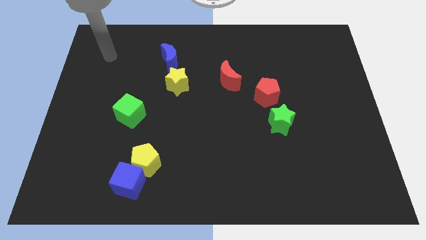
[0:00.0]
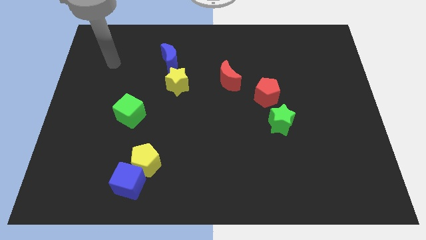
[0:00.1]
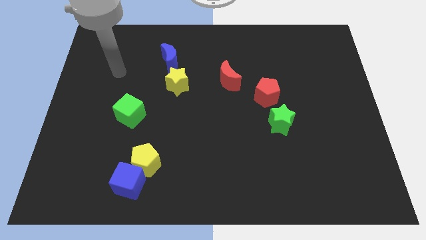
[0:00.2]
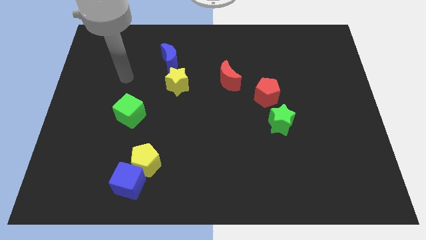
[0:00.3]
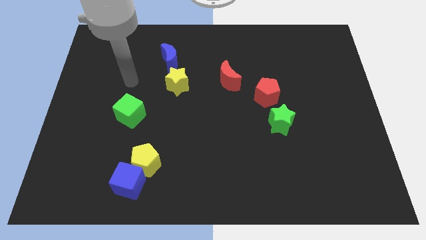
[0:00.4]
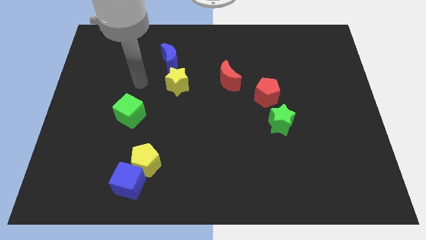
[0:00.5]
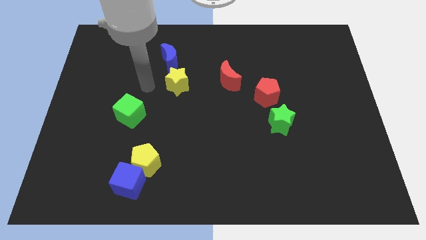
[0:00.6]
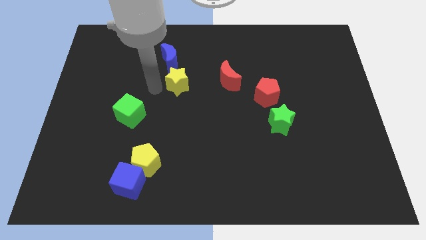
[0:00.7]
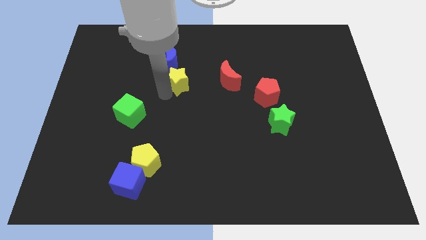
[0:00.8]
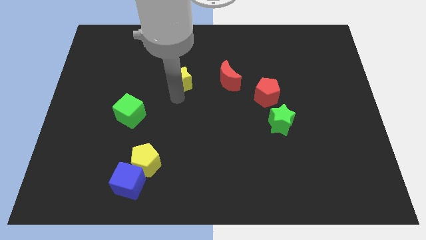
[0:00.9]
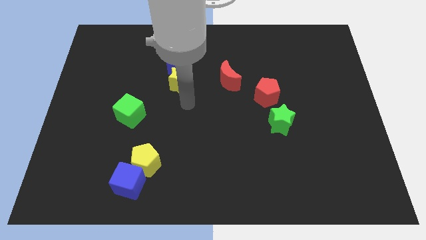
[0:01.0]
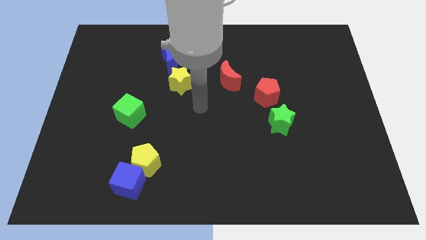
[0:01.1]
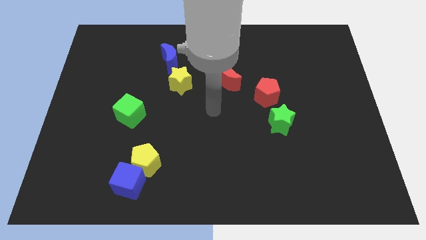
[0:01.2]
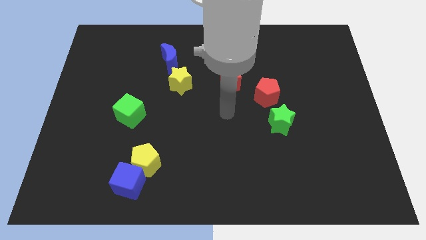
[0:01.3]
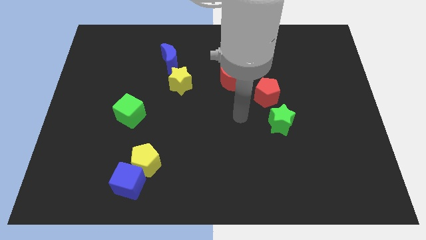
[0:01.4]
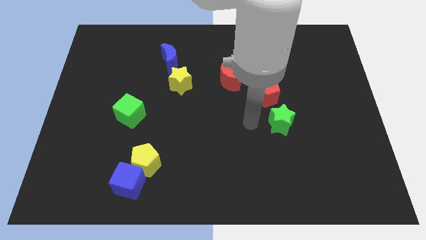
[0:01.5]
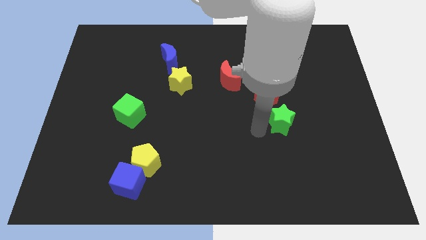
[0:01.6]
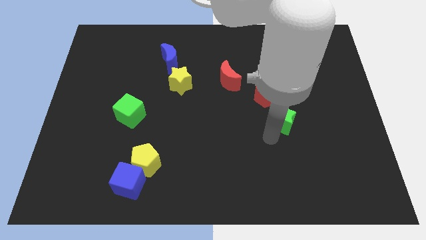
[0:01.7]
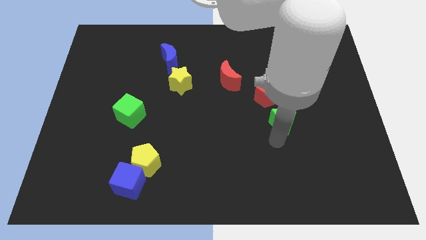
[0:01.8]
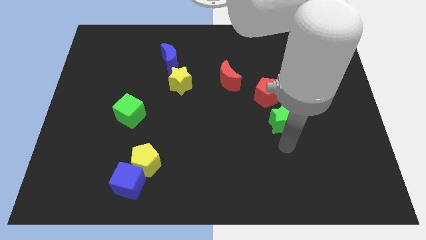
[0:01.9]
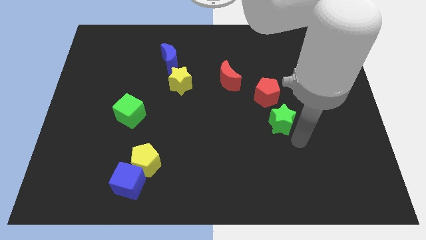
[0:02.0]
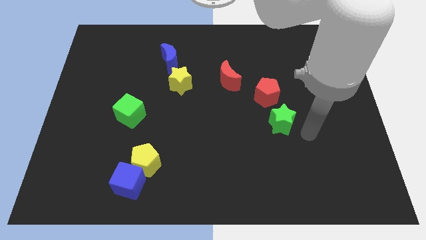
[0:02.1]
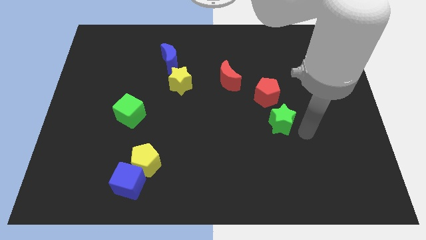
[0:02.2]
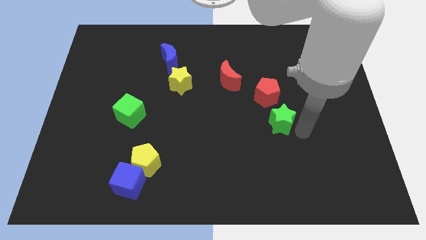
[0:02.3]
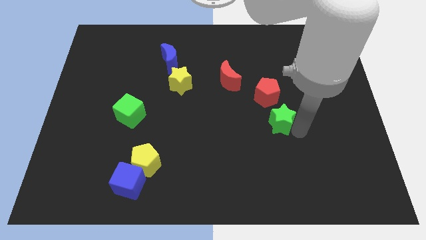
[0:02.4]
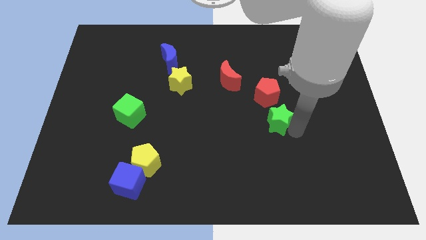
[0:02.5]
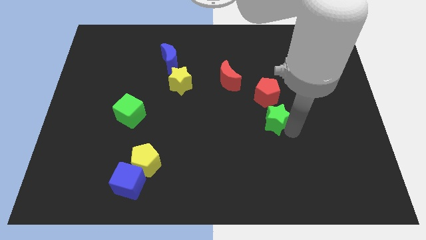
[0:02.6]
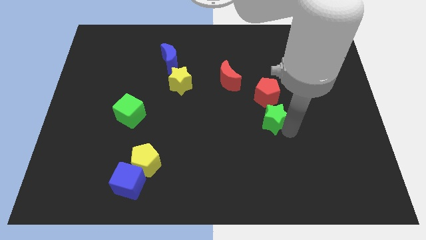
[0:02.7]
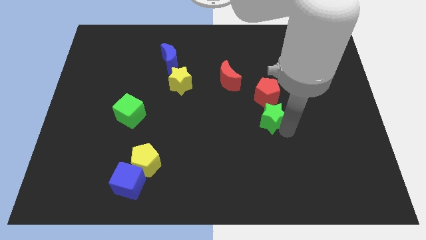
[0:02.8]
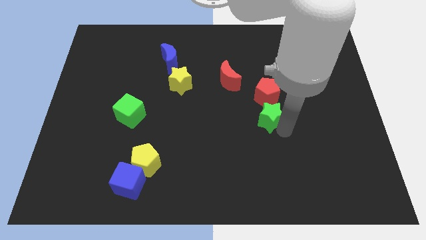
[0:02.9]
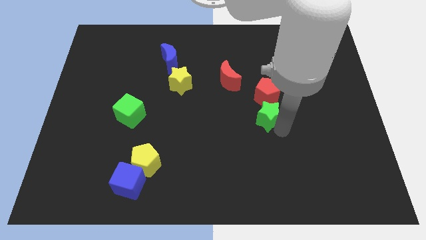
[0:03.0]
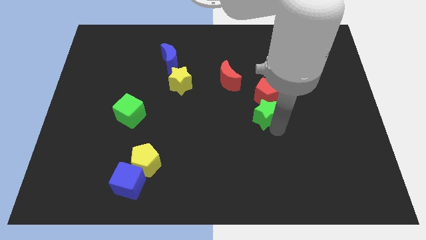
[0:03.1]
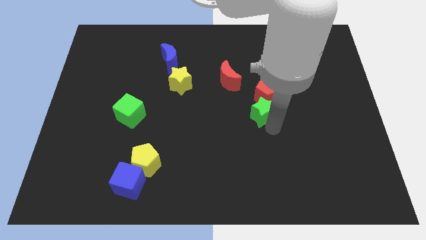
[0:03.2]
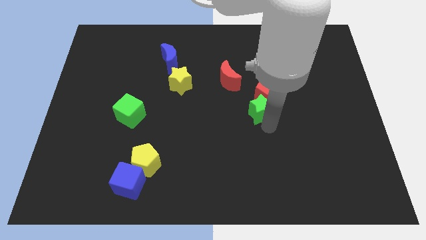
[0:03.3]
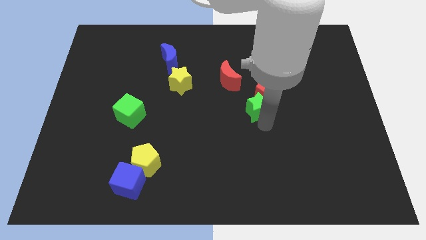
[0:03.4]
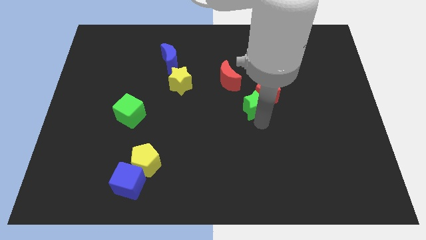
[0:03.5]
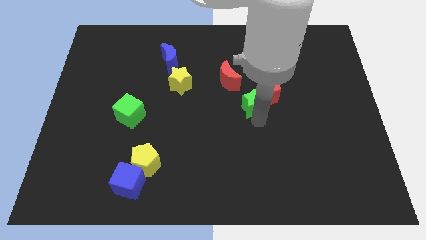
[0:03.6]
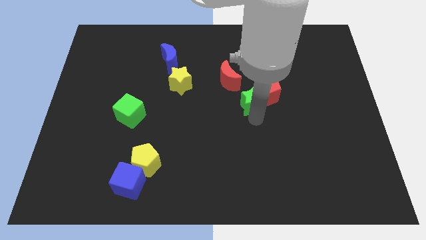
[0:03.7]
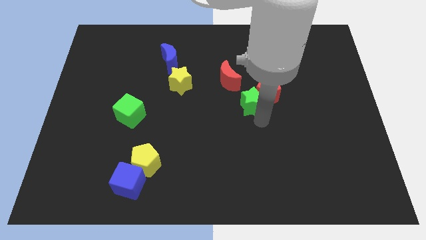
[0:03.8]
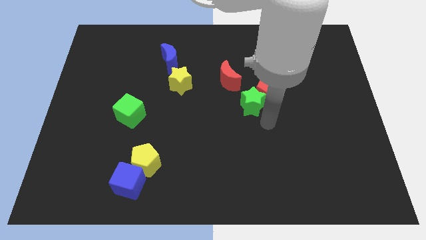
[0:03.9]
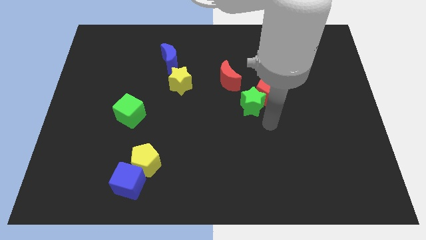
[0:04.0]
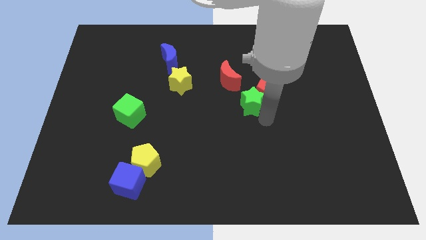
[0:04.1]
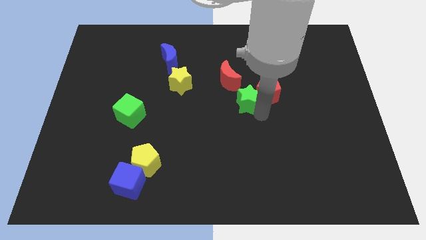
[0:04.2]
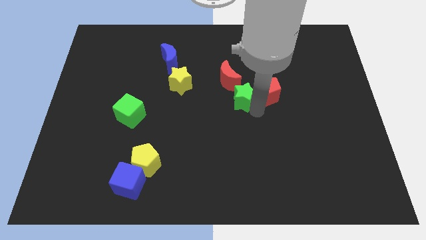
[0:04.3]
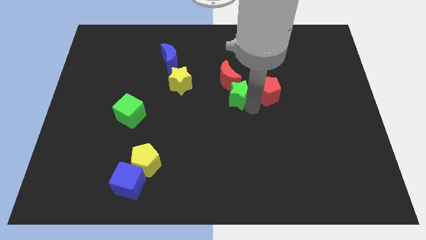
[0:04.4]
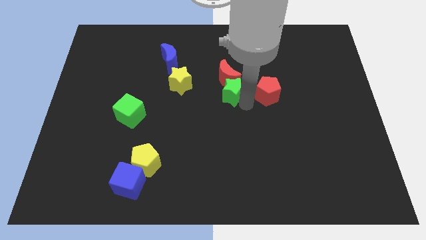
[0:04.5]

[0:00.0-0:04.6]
slide the green star towards the red moon

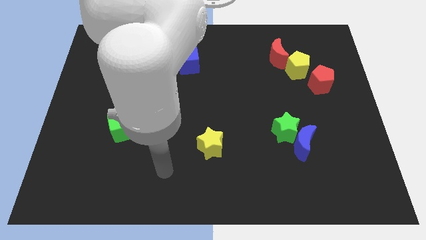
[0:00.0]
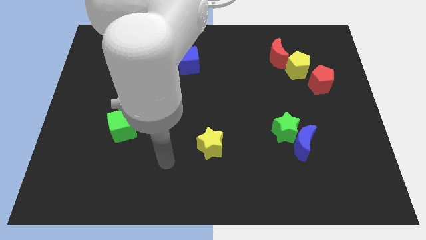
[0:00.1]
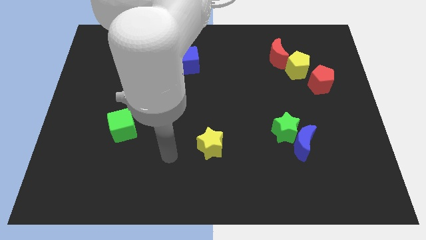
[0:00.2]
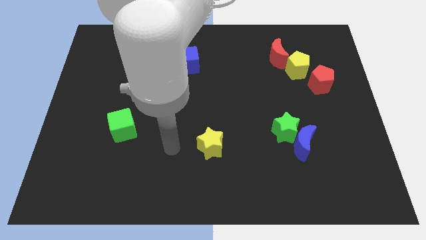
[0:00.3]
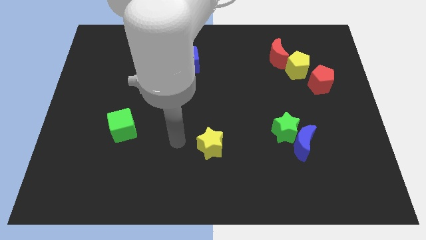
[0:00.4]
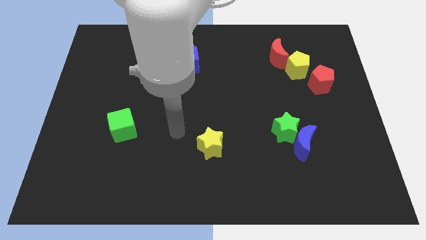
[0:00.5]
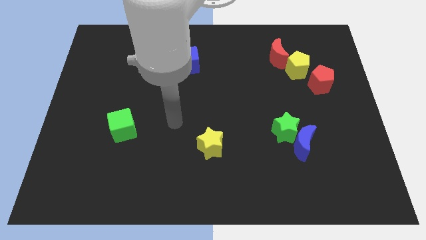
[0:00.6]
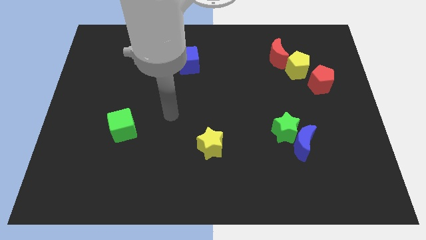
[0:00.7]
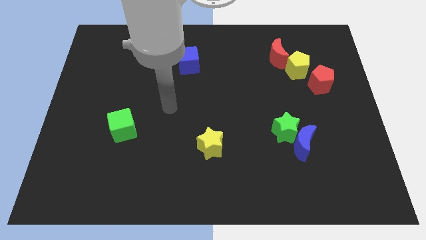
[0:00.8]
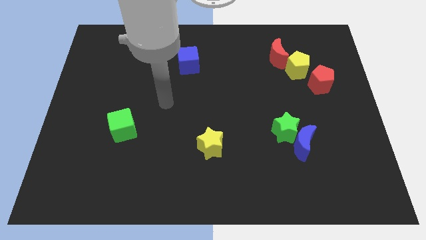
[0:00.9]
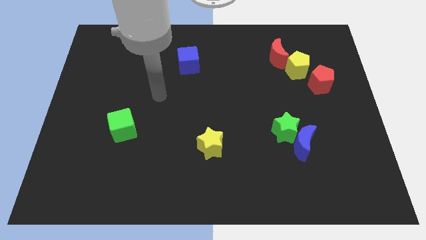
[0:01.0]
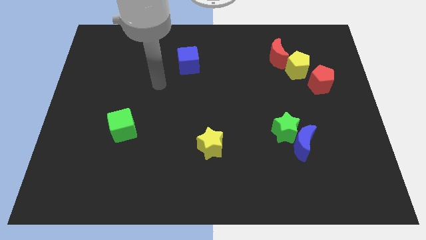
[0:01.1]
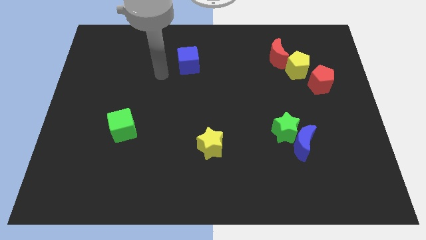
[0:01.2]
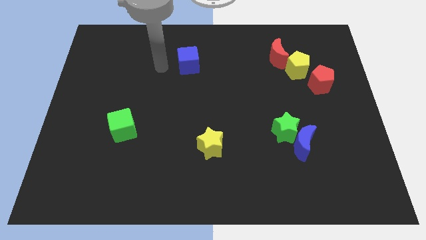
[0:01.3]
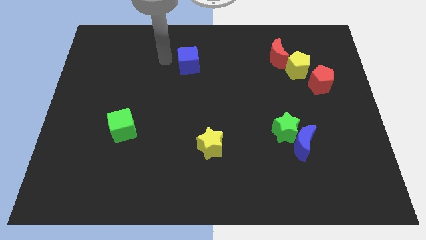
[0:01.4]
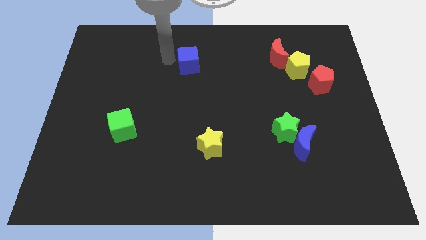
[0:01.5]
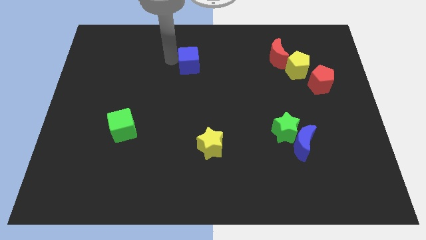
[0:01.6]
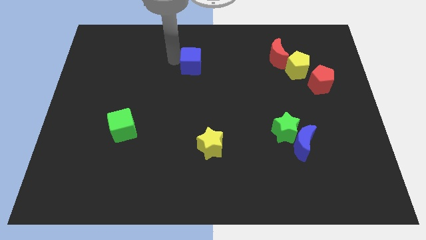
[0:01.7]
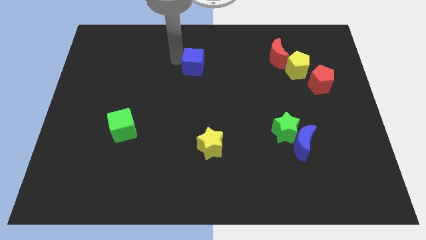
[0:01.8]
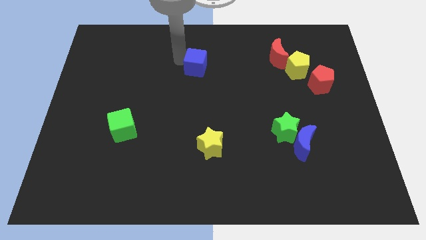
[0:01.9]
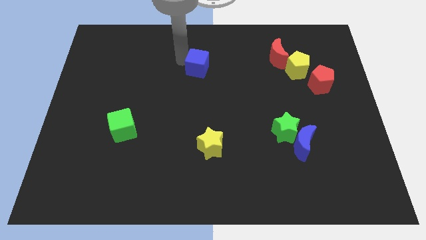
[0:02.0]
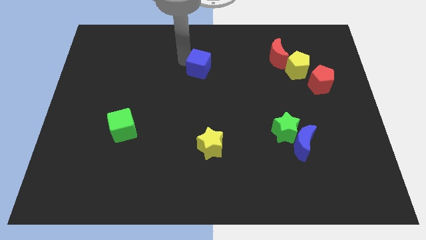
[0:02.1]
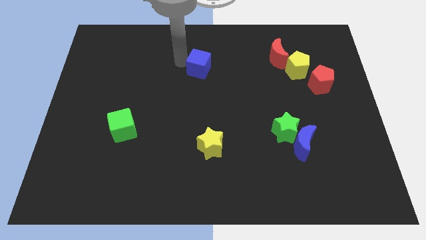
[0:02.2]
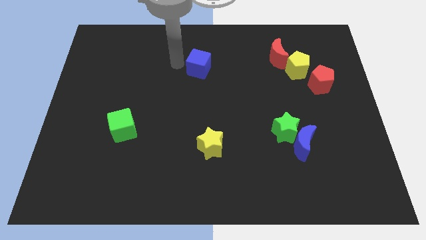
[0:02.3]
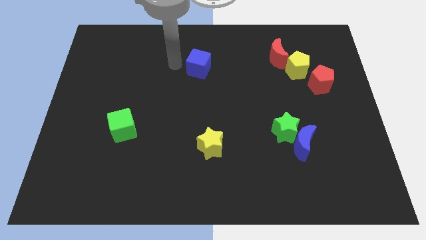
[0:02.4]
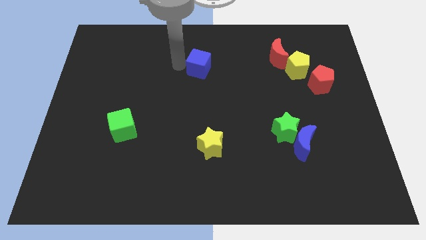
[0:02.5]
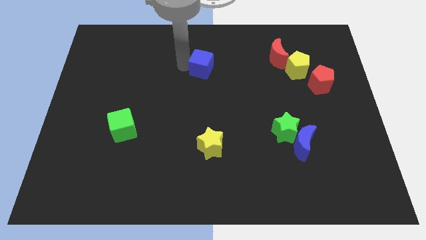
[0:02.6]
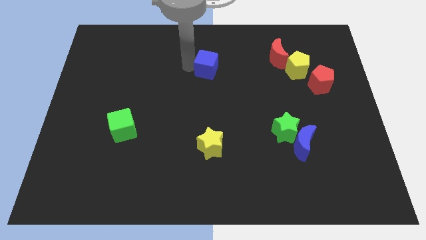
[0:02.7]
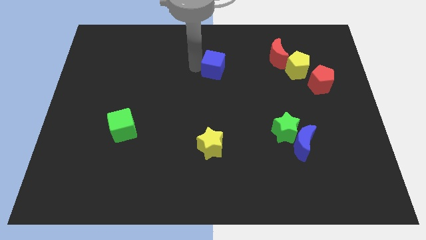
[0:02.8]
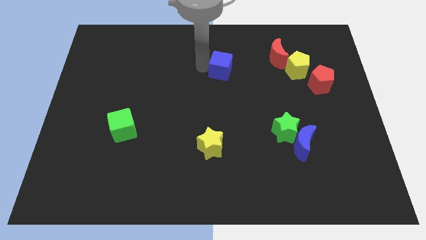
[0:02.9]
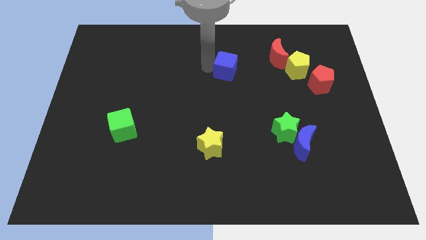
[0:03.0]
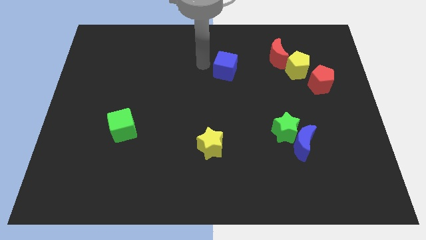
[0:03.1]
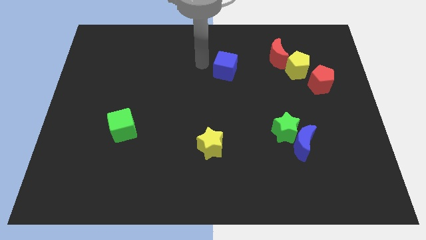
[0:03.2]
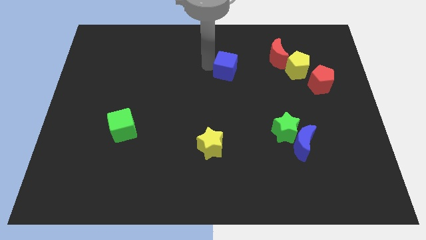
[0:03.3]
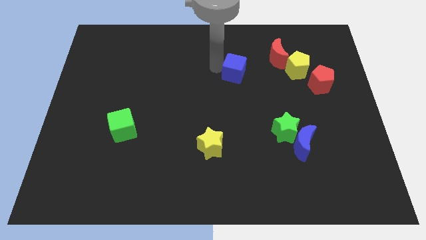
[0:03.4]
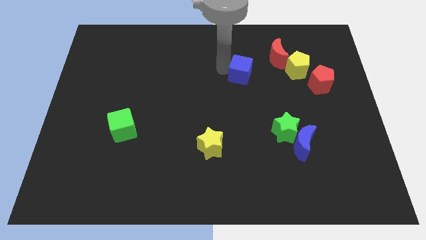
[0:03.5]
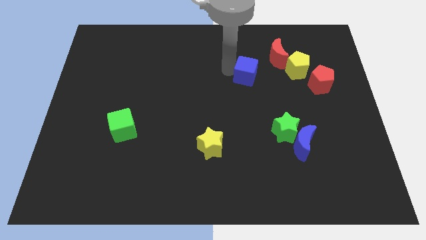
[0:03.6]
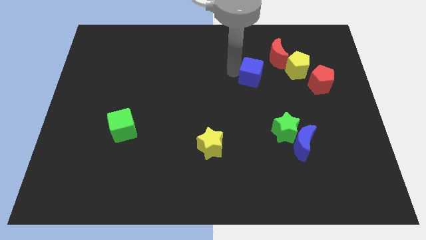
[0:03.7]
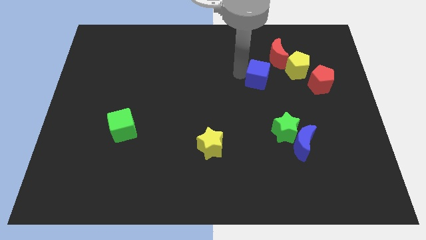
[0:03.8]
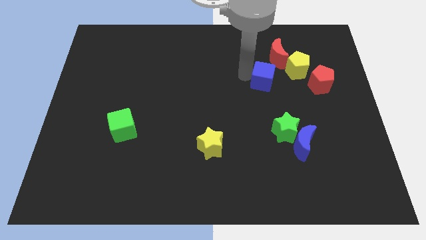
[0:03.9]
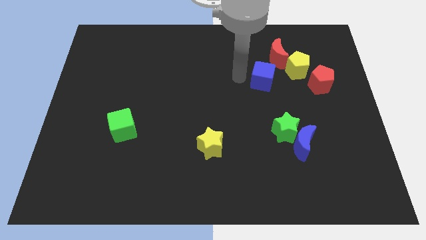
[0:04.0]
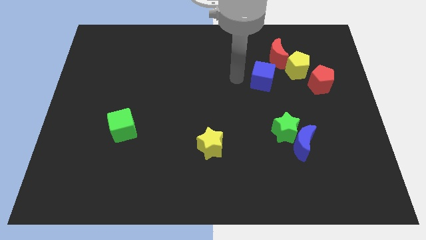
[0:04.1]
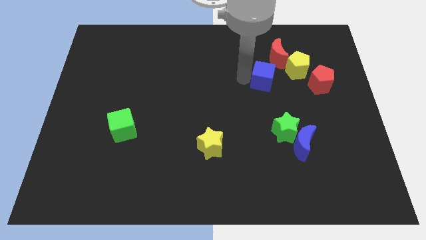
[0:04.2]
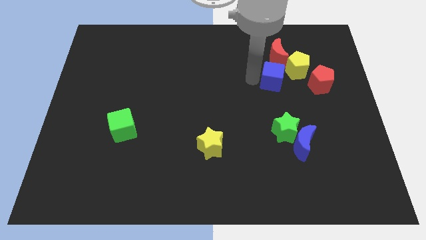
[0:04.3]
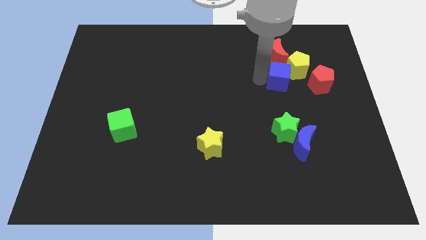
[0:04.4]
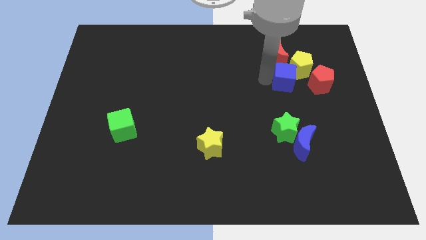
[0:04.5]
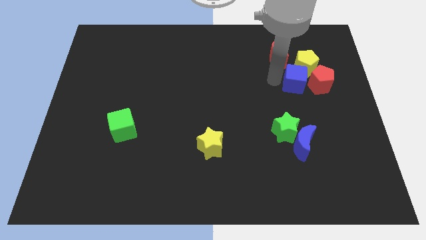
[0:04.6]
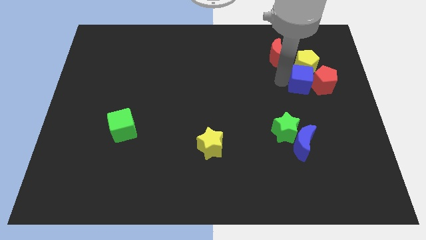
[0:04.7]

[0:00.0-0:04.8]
put the blue cube next to the red pentagon
